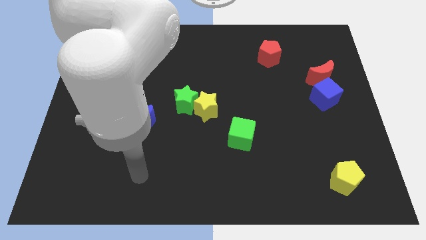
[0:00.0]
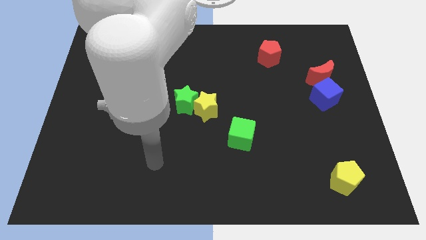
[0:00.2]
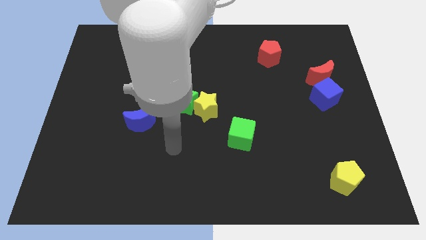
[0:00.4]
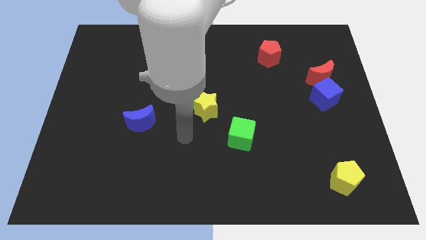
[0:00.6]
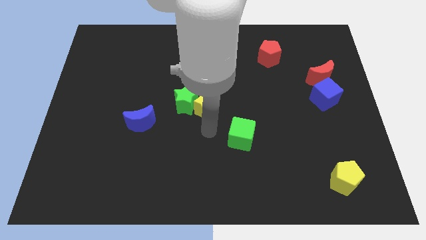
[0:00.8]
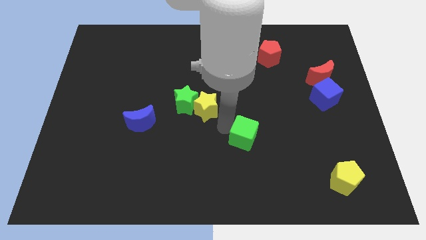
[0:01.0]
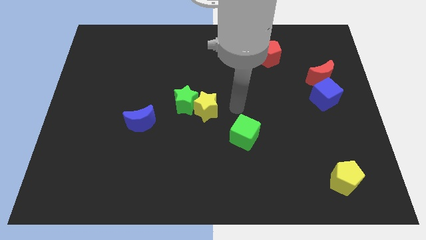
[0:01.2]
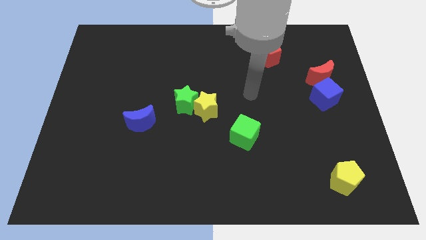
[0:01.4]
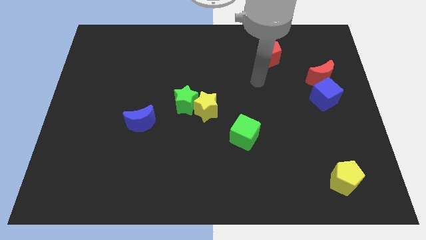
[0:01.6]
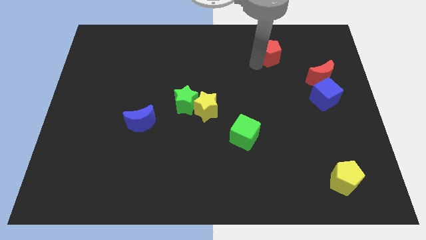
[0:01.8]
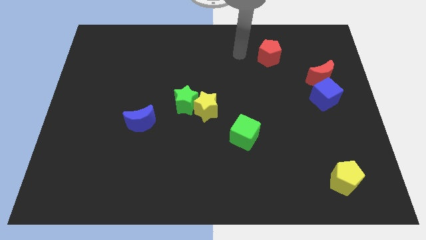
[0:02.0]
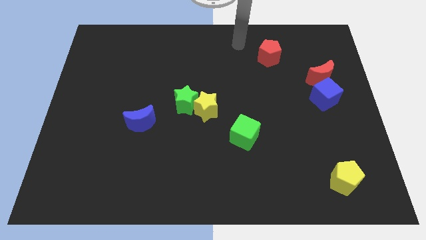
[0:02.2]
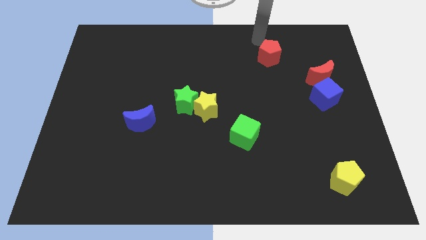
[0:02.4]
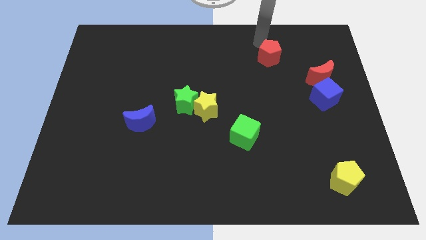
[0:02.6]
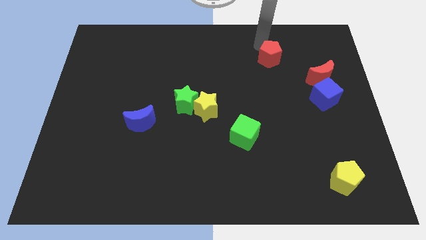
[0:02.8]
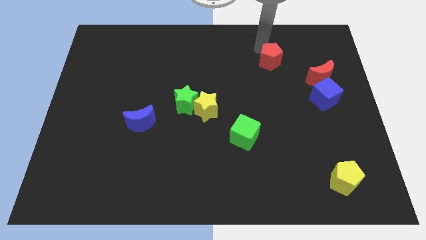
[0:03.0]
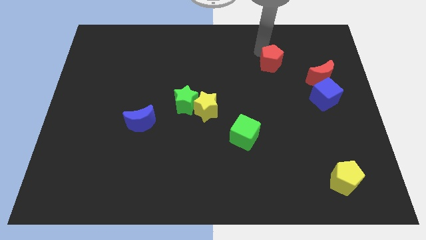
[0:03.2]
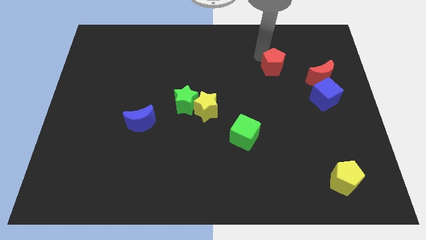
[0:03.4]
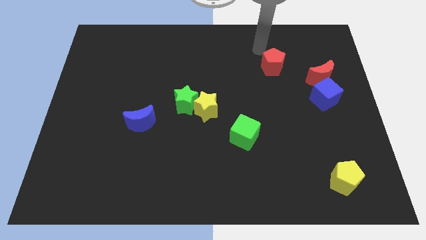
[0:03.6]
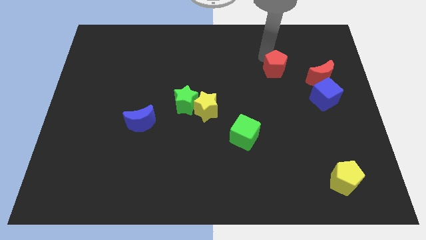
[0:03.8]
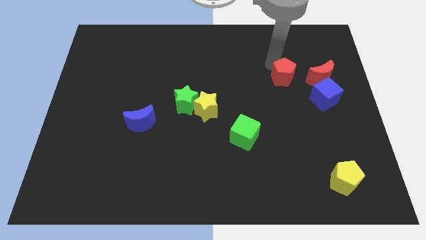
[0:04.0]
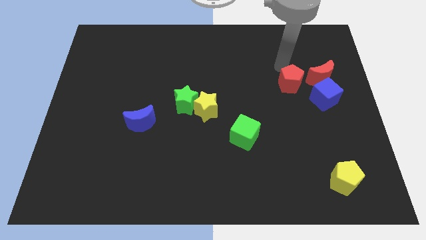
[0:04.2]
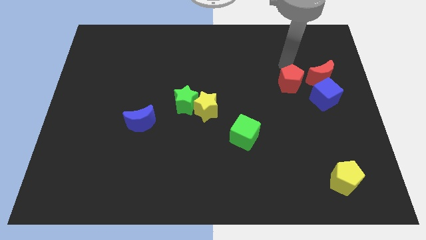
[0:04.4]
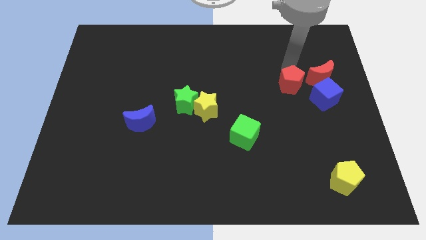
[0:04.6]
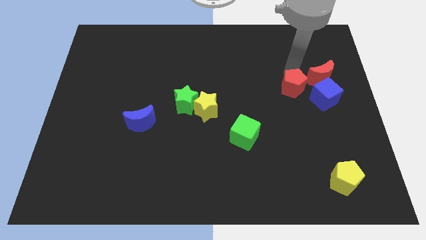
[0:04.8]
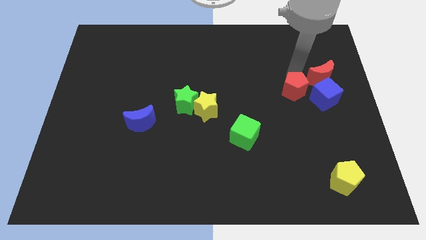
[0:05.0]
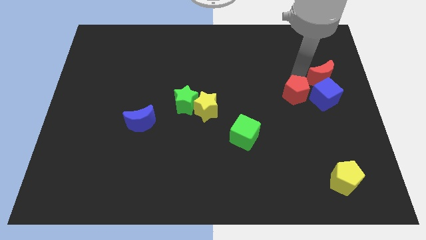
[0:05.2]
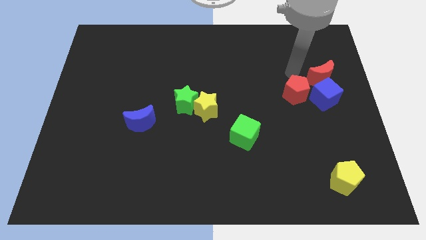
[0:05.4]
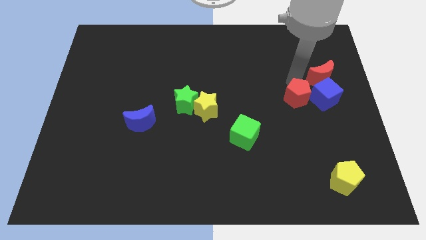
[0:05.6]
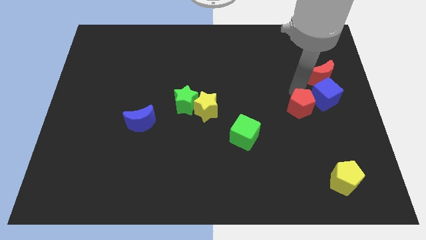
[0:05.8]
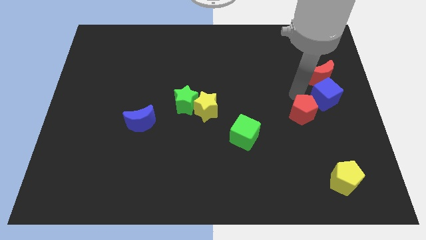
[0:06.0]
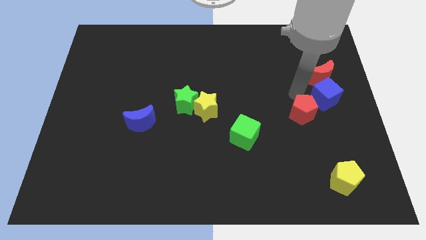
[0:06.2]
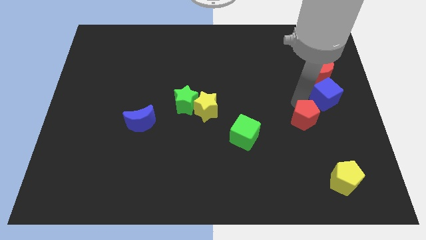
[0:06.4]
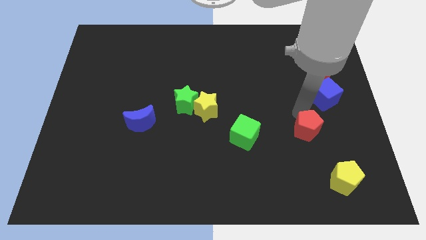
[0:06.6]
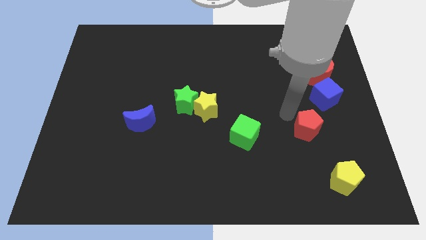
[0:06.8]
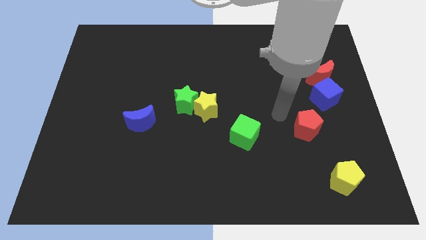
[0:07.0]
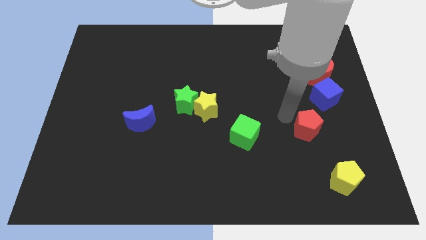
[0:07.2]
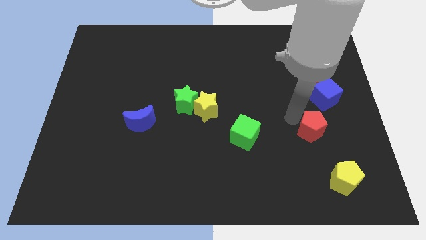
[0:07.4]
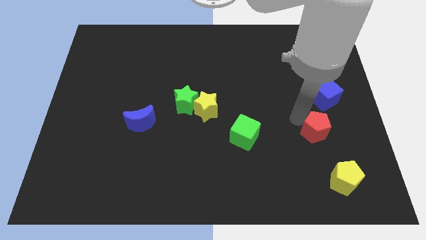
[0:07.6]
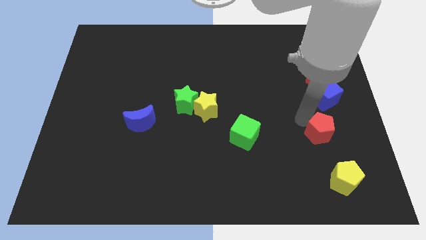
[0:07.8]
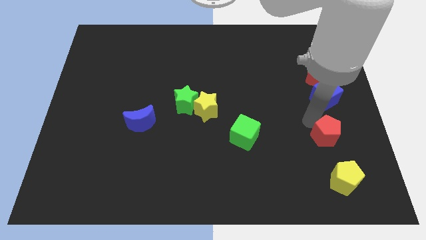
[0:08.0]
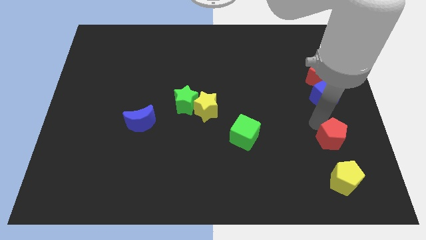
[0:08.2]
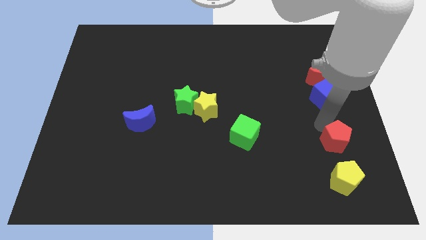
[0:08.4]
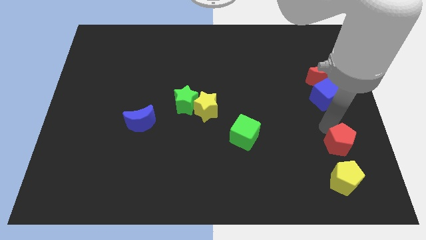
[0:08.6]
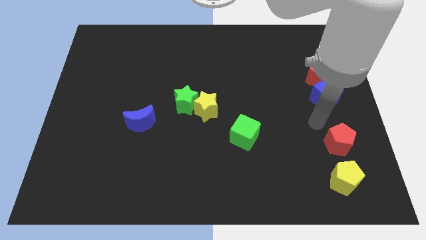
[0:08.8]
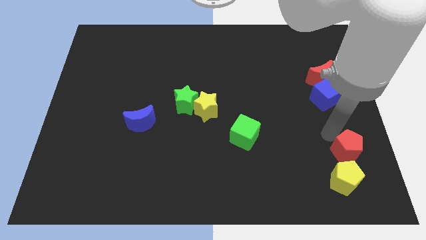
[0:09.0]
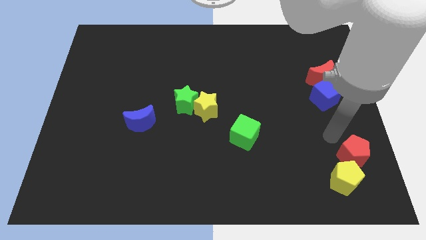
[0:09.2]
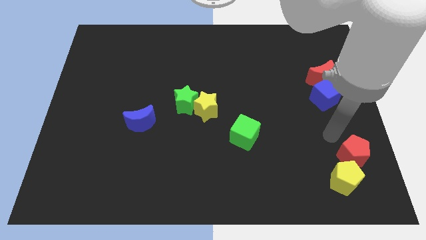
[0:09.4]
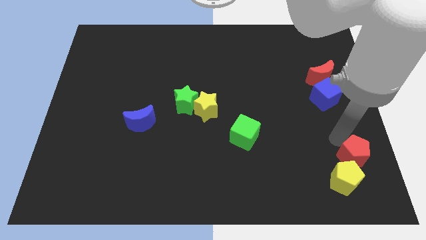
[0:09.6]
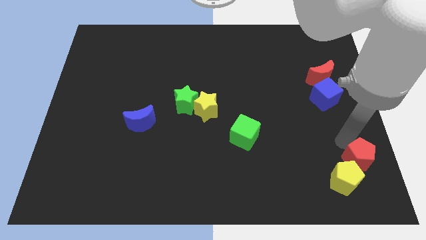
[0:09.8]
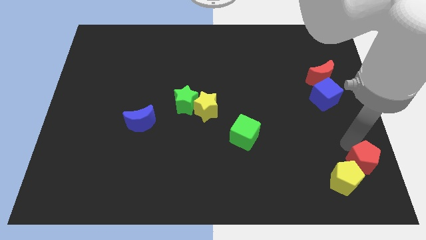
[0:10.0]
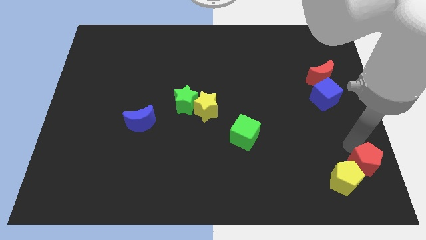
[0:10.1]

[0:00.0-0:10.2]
put the red pentagon to the bottom right of the board

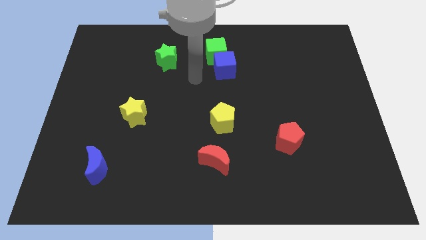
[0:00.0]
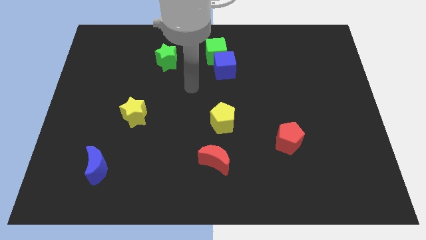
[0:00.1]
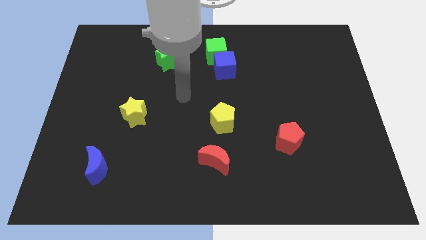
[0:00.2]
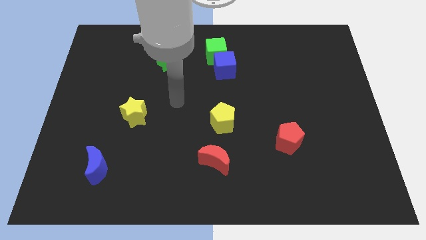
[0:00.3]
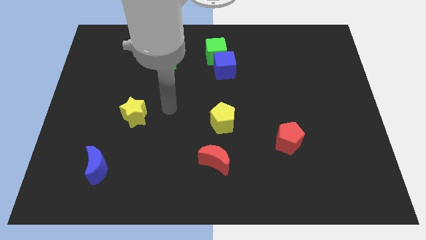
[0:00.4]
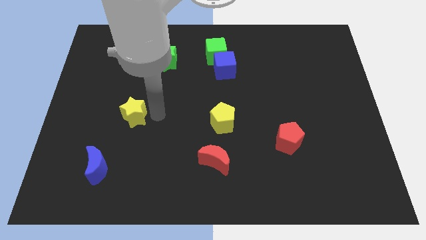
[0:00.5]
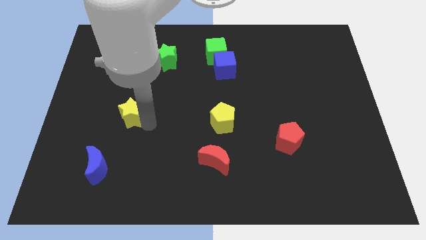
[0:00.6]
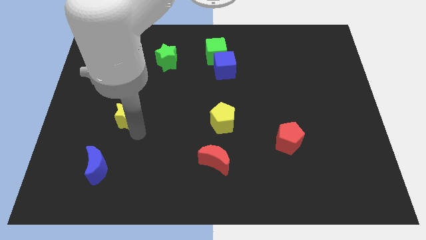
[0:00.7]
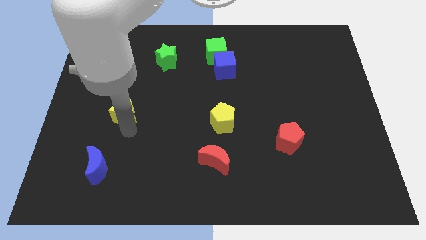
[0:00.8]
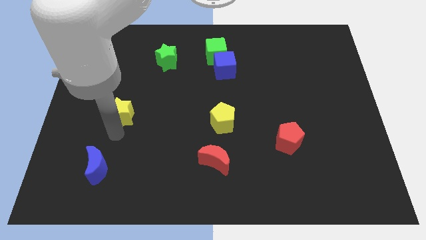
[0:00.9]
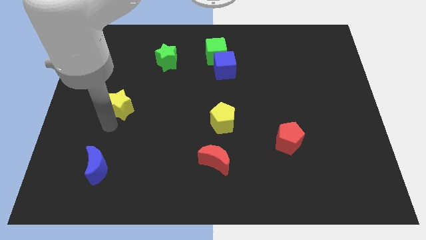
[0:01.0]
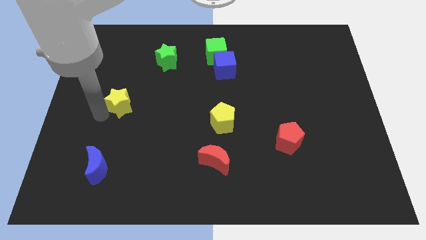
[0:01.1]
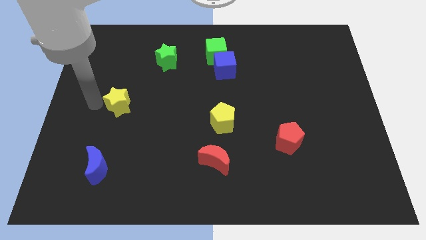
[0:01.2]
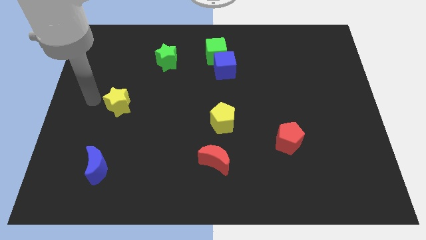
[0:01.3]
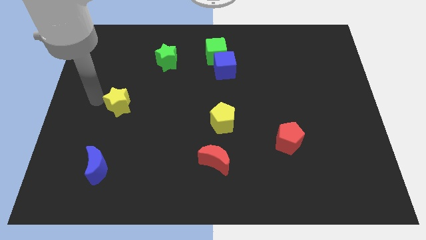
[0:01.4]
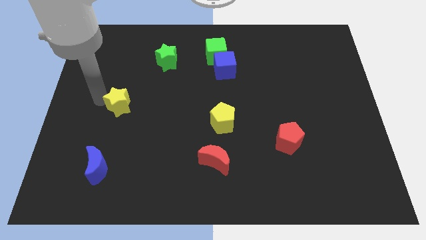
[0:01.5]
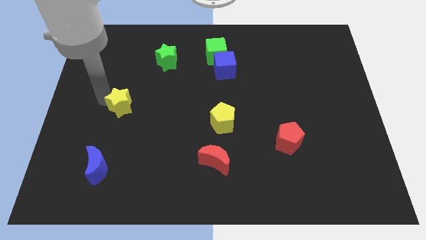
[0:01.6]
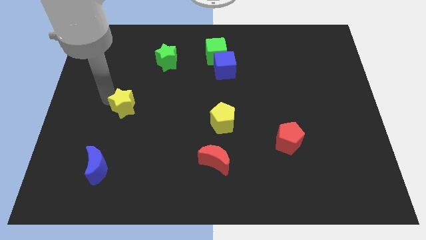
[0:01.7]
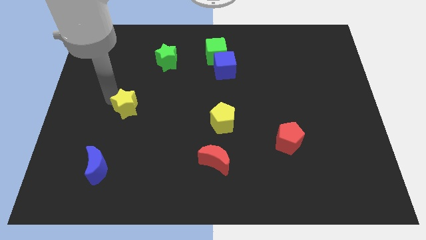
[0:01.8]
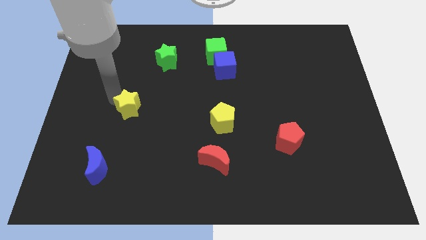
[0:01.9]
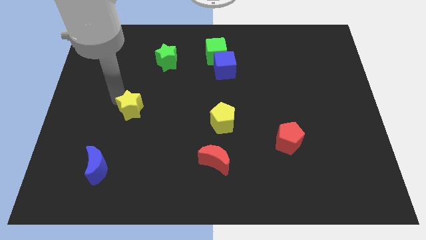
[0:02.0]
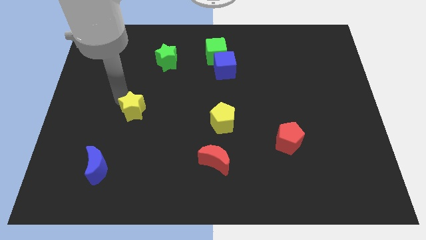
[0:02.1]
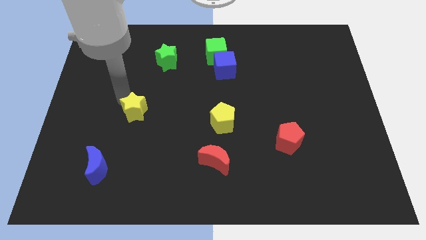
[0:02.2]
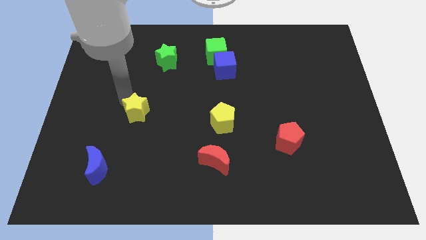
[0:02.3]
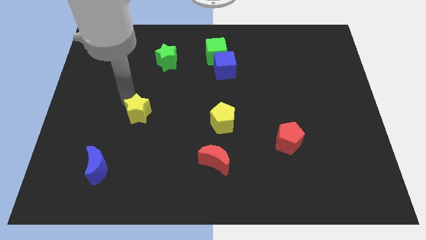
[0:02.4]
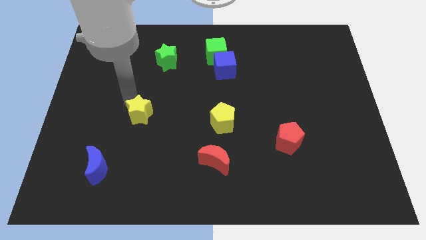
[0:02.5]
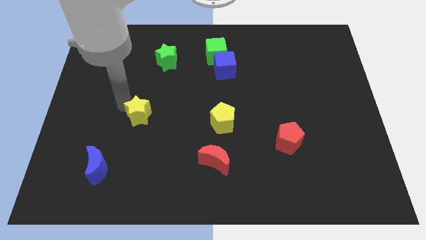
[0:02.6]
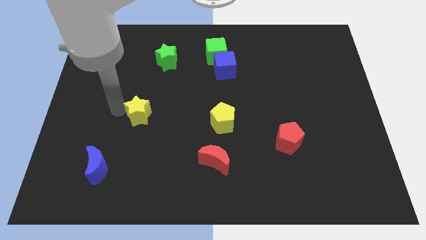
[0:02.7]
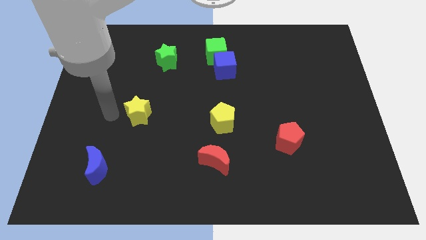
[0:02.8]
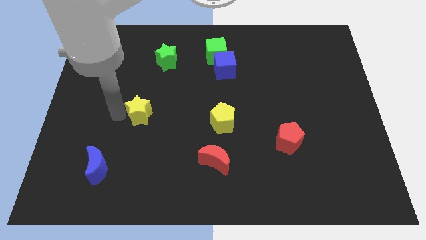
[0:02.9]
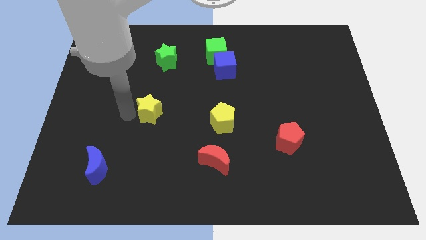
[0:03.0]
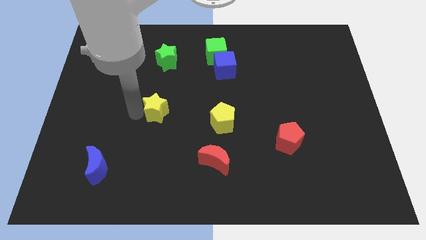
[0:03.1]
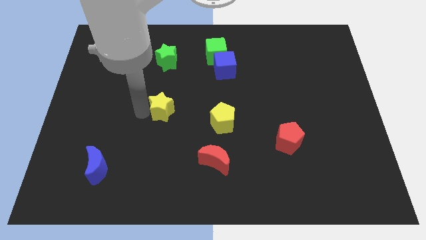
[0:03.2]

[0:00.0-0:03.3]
move the yellow star to the center
